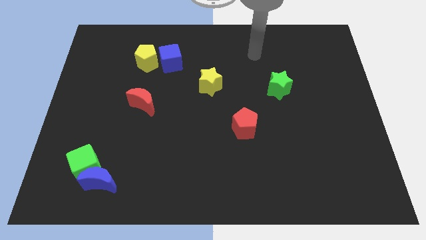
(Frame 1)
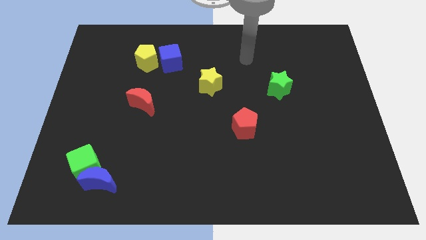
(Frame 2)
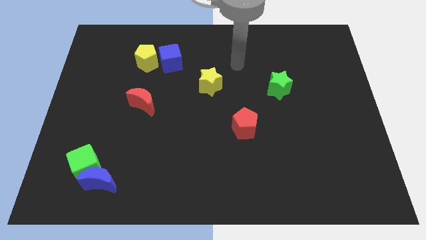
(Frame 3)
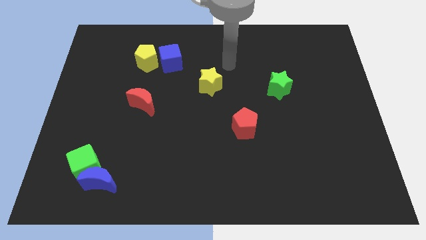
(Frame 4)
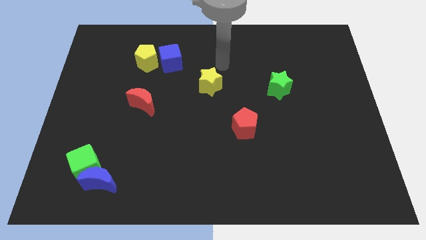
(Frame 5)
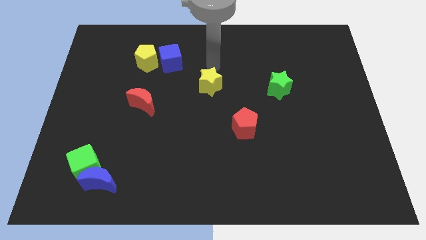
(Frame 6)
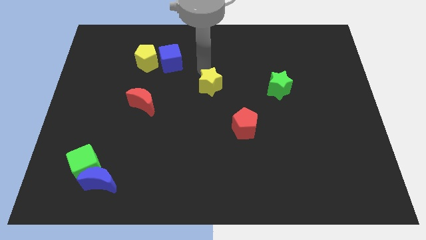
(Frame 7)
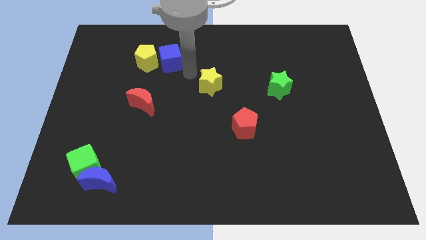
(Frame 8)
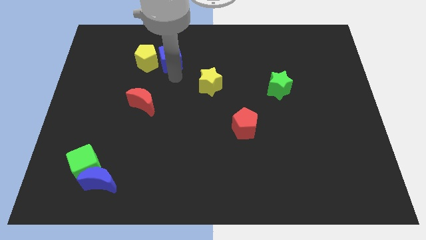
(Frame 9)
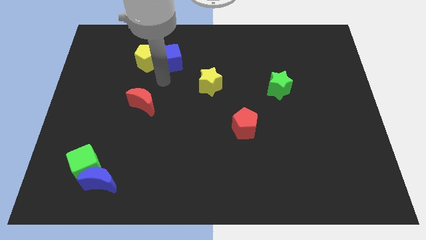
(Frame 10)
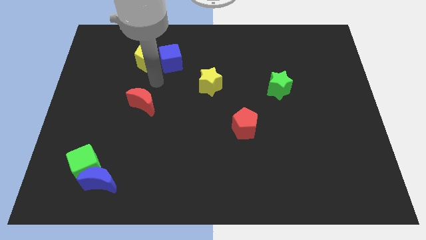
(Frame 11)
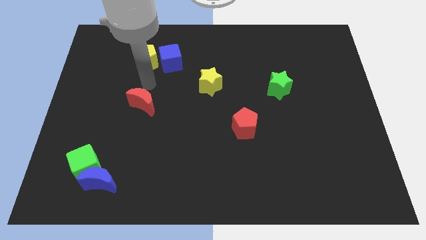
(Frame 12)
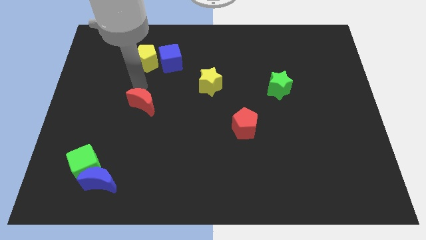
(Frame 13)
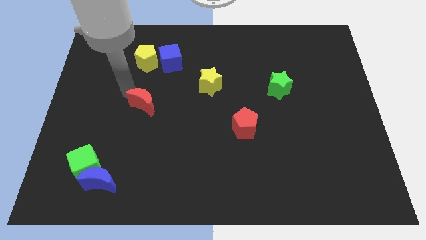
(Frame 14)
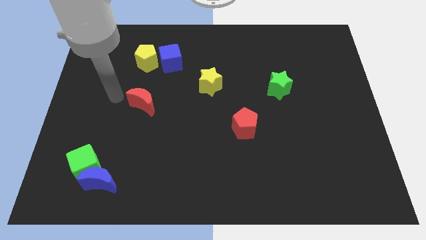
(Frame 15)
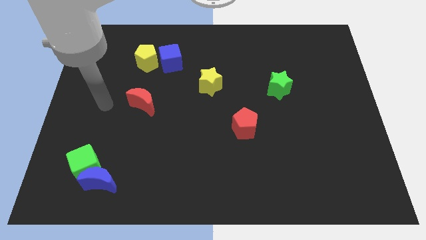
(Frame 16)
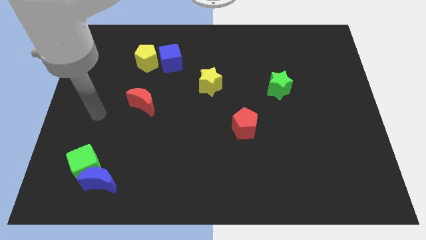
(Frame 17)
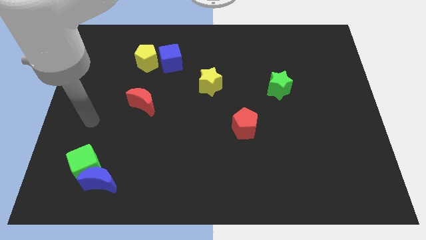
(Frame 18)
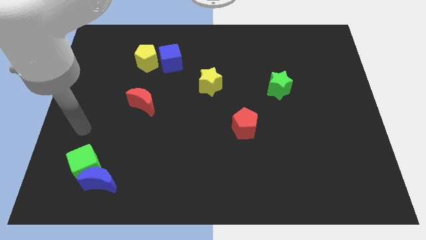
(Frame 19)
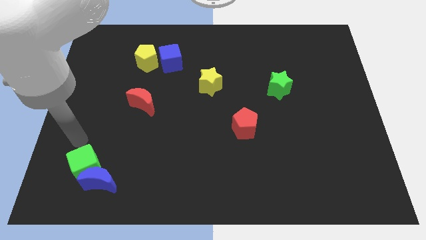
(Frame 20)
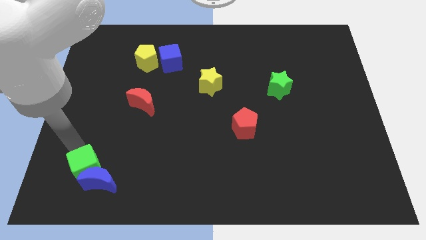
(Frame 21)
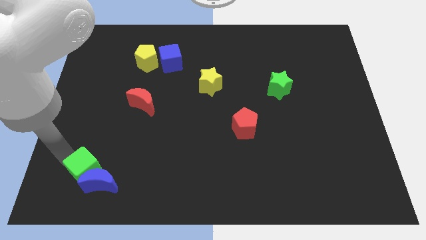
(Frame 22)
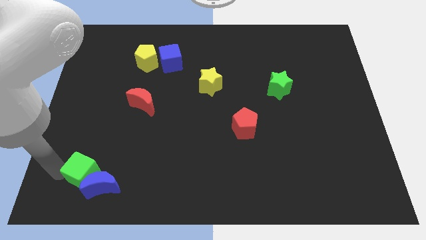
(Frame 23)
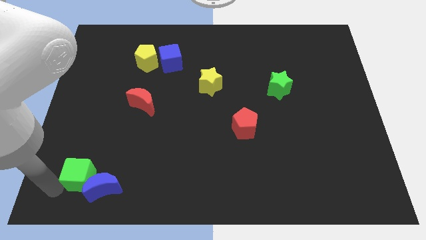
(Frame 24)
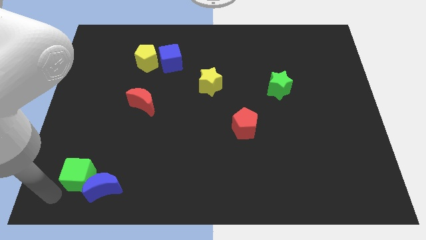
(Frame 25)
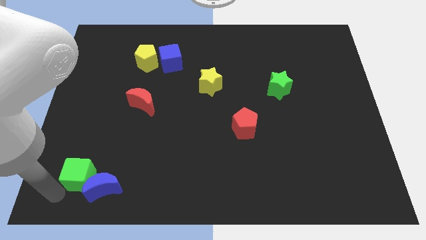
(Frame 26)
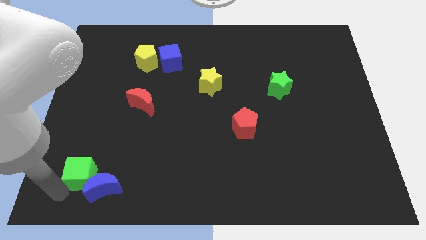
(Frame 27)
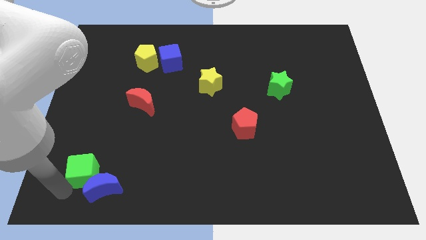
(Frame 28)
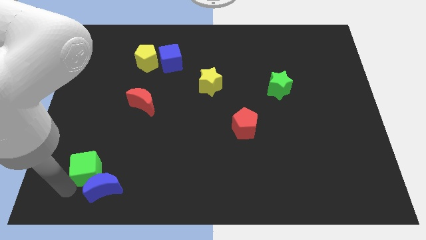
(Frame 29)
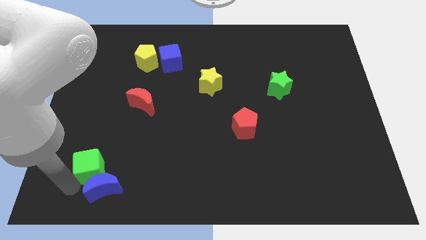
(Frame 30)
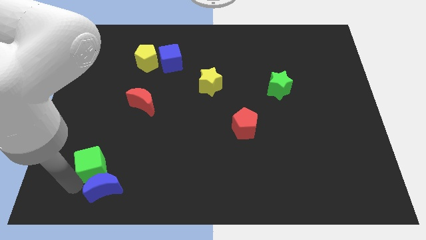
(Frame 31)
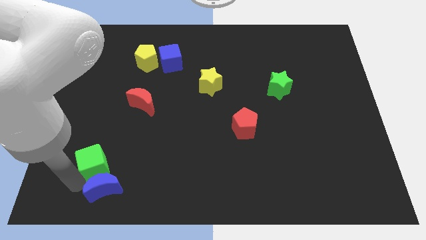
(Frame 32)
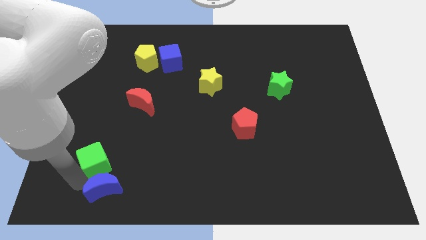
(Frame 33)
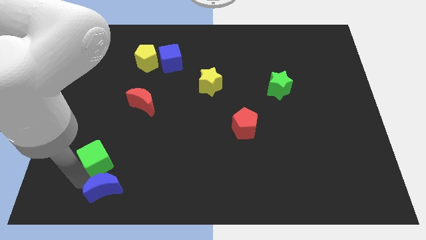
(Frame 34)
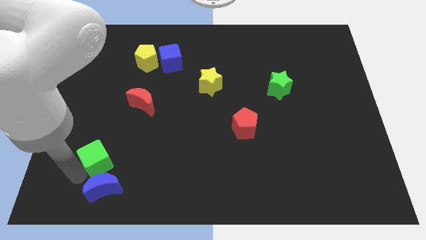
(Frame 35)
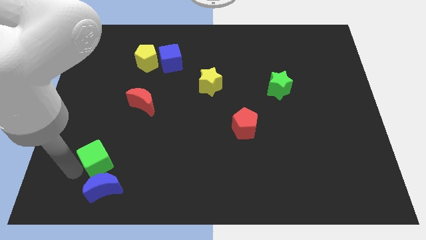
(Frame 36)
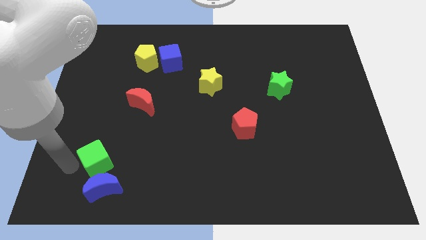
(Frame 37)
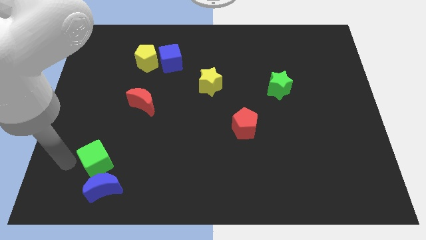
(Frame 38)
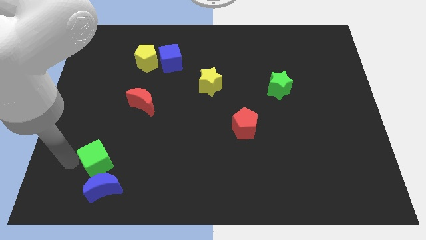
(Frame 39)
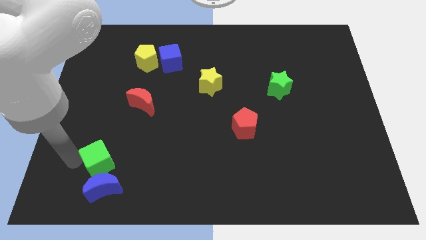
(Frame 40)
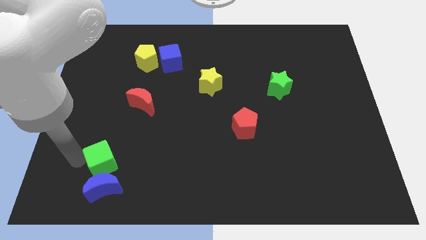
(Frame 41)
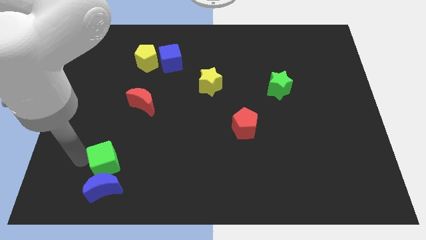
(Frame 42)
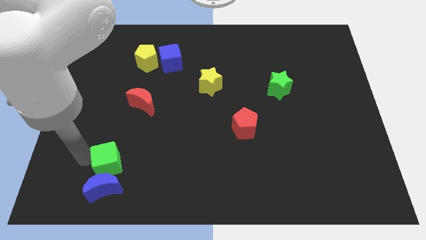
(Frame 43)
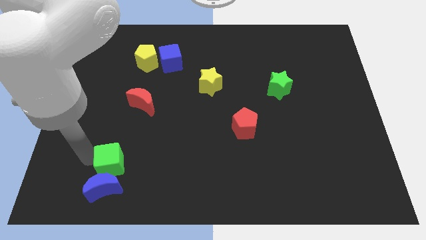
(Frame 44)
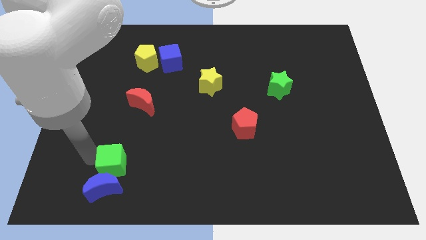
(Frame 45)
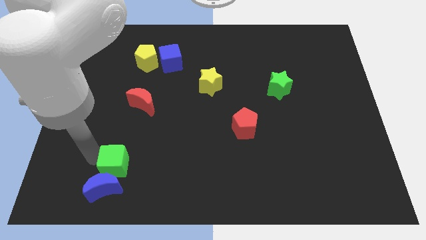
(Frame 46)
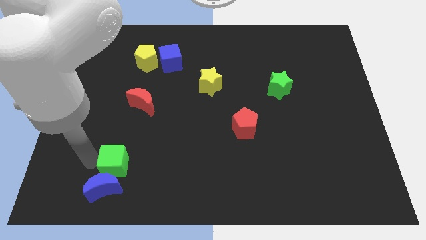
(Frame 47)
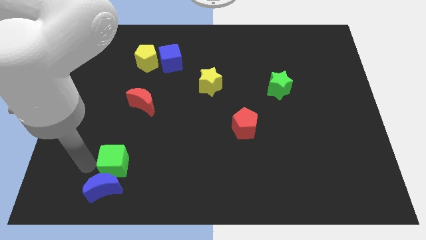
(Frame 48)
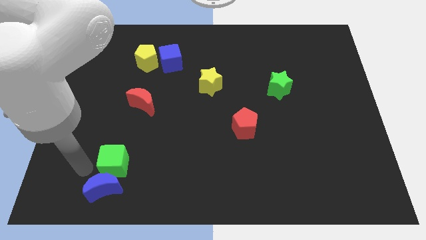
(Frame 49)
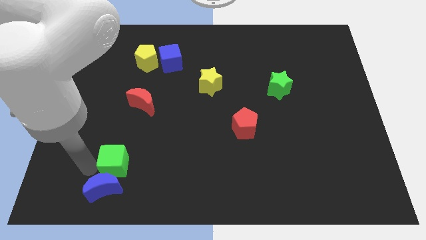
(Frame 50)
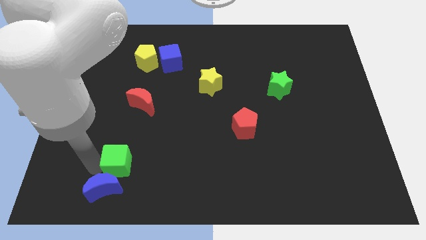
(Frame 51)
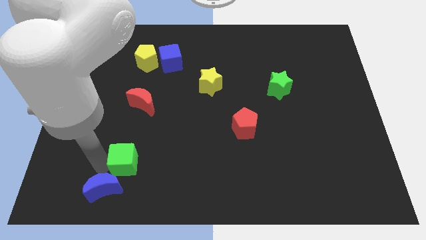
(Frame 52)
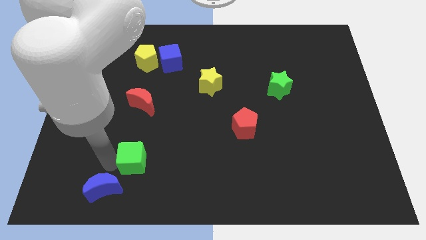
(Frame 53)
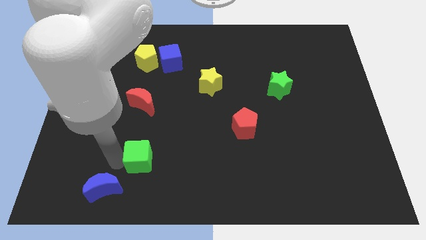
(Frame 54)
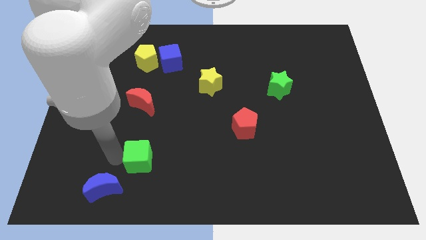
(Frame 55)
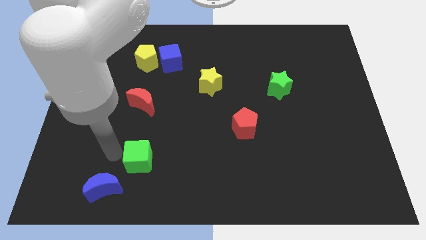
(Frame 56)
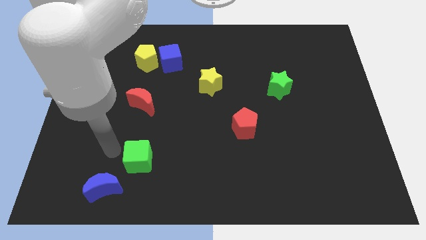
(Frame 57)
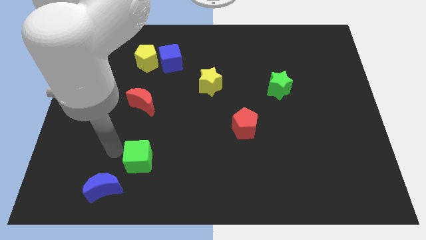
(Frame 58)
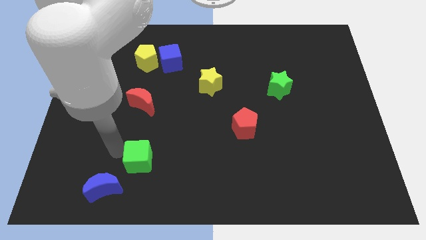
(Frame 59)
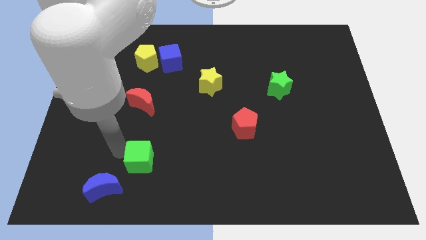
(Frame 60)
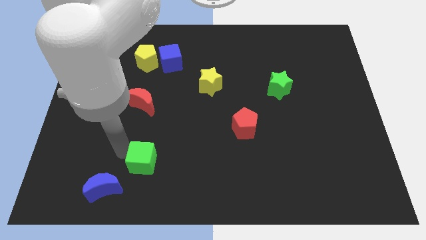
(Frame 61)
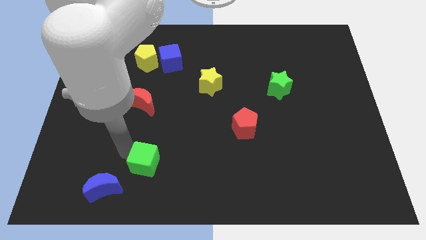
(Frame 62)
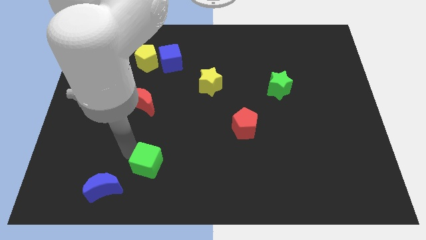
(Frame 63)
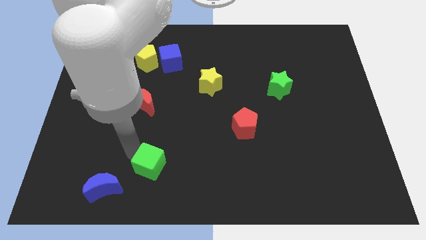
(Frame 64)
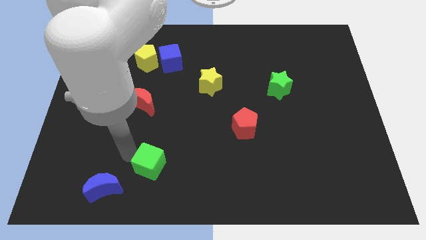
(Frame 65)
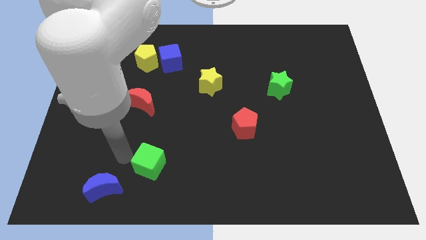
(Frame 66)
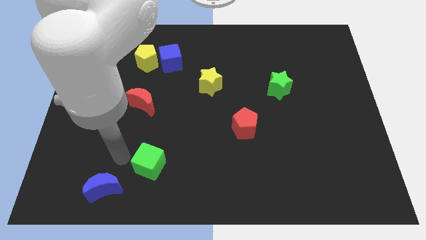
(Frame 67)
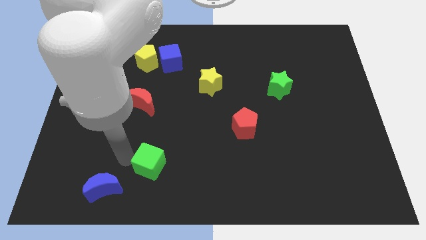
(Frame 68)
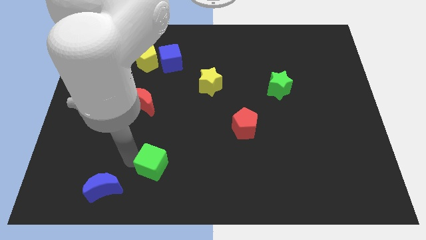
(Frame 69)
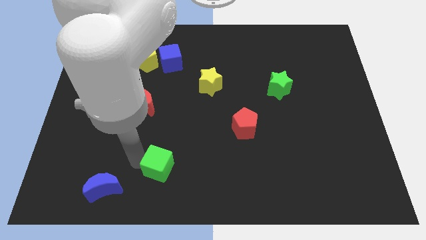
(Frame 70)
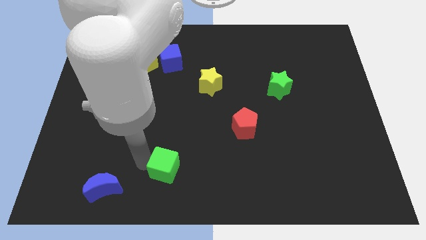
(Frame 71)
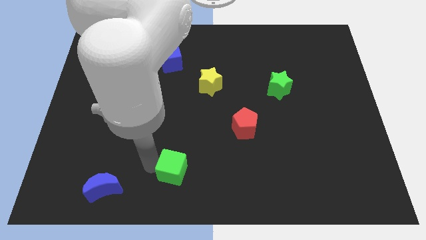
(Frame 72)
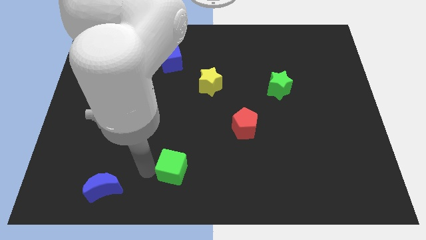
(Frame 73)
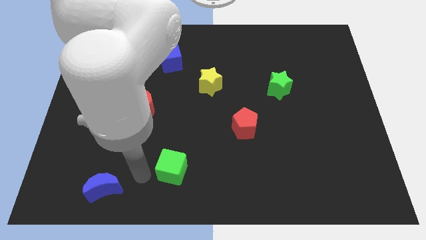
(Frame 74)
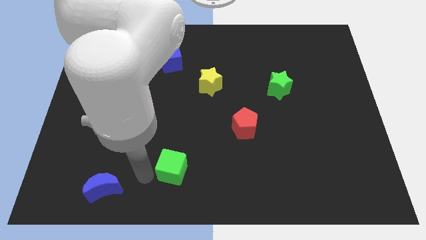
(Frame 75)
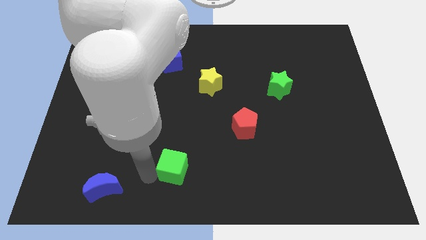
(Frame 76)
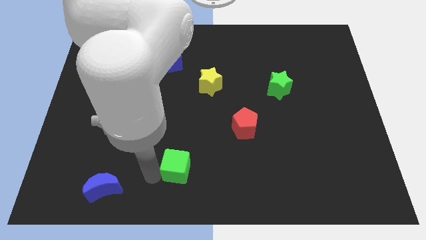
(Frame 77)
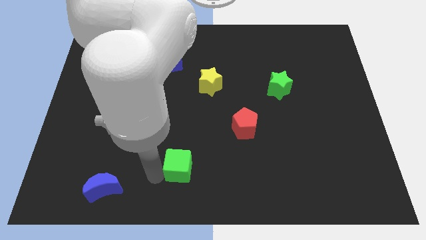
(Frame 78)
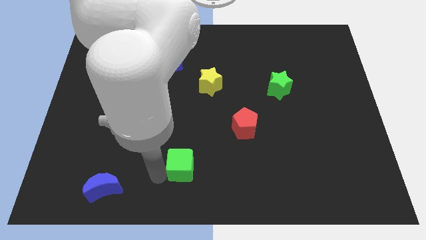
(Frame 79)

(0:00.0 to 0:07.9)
move the green cube right
